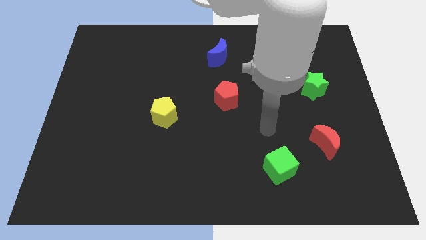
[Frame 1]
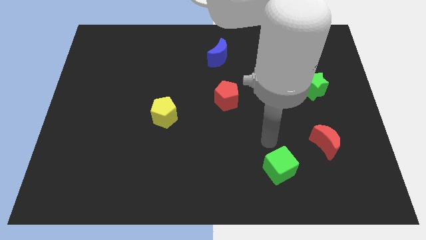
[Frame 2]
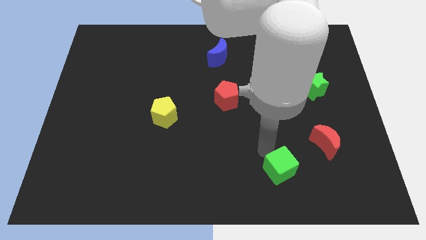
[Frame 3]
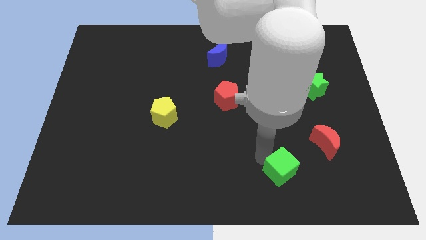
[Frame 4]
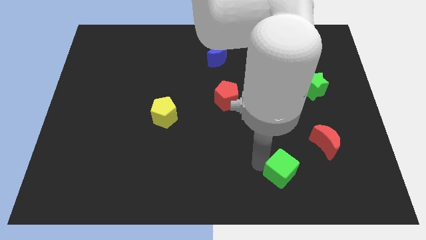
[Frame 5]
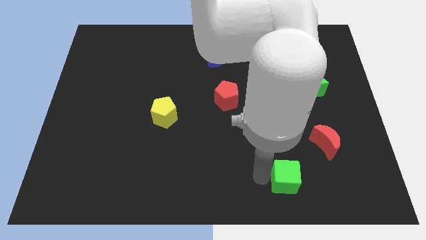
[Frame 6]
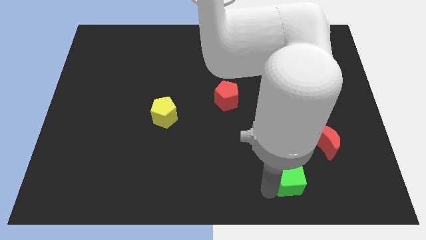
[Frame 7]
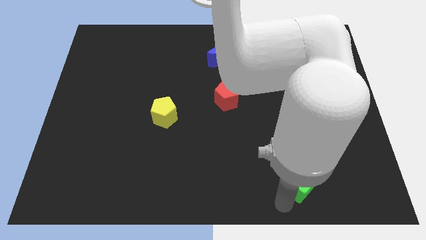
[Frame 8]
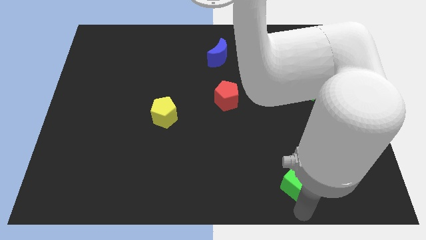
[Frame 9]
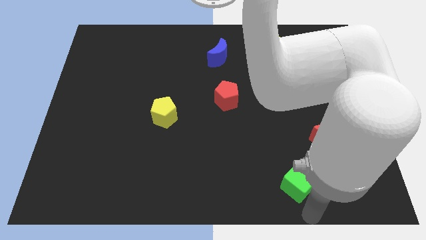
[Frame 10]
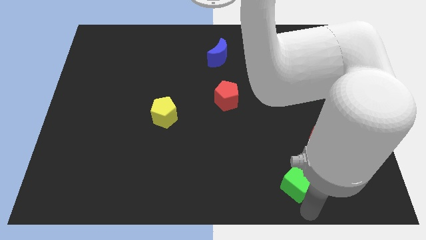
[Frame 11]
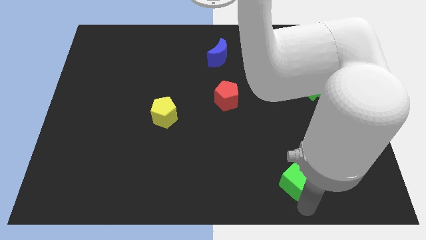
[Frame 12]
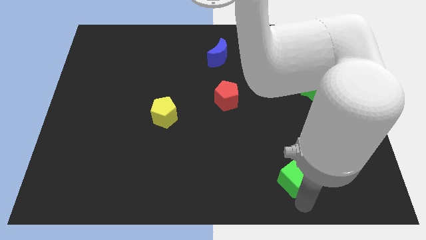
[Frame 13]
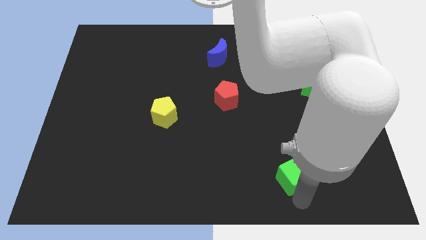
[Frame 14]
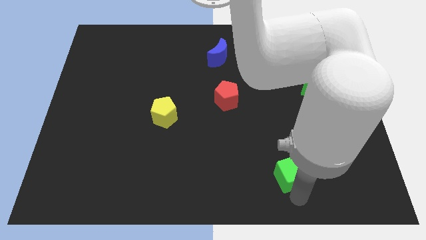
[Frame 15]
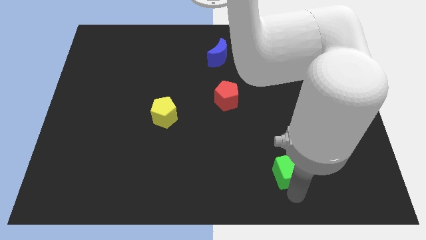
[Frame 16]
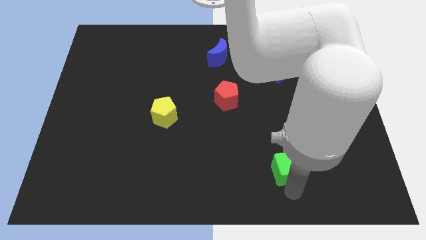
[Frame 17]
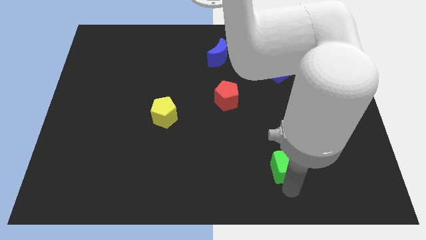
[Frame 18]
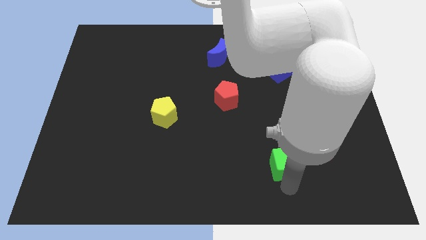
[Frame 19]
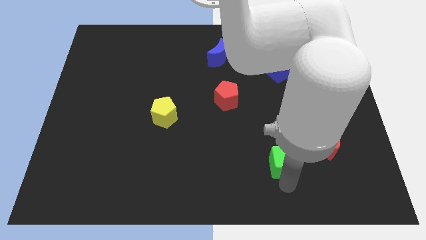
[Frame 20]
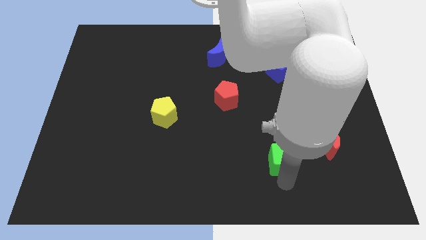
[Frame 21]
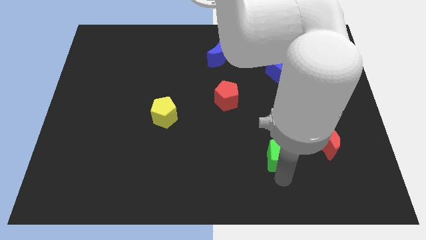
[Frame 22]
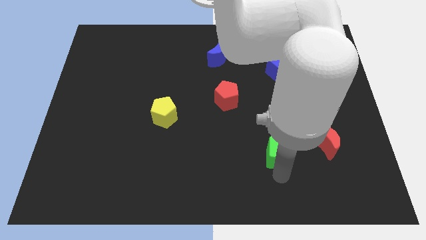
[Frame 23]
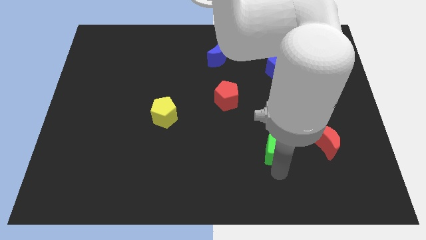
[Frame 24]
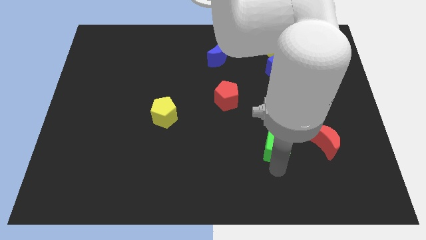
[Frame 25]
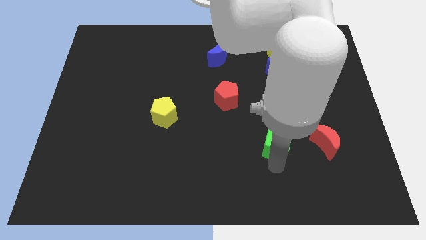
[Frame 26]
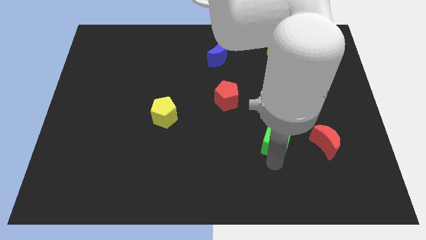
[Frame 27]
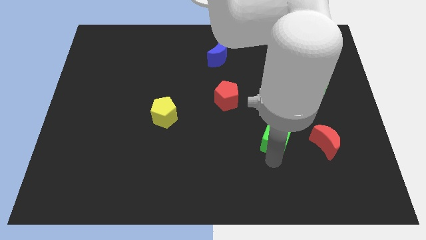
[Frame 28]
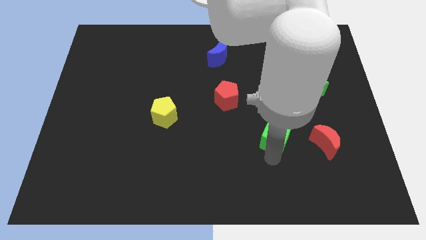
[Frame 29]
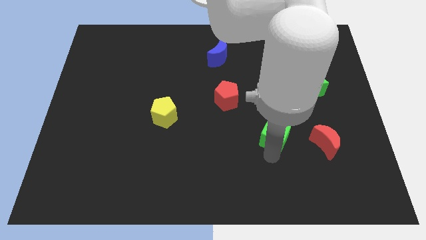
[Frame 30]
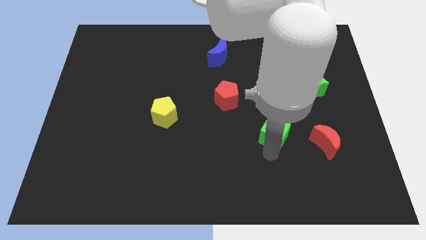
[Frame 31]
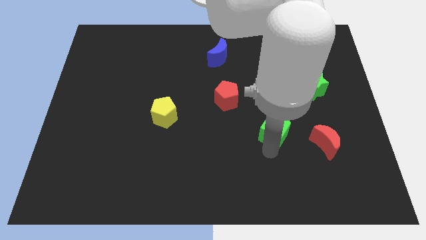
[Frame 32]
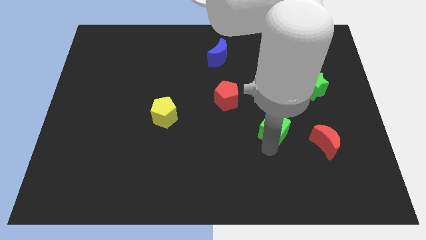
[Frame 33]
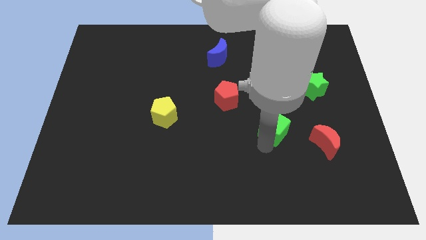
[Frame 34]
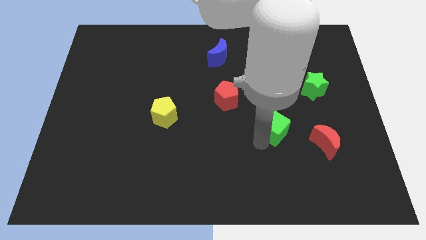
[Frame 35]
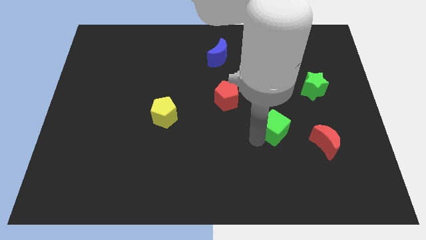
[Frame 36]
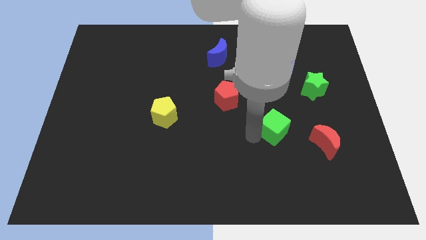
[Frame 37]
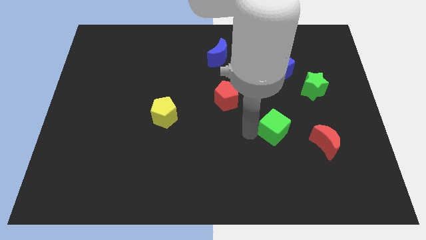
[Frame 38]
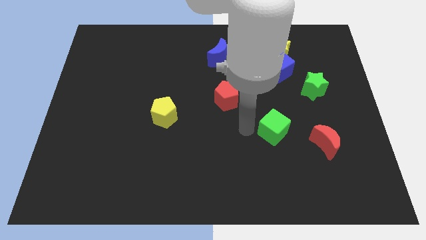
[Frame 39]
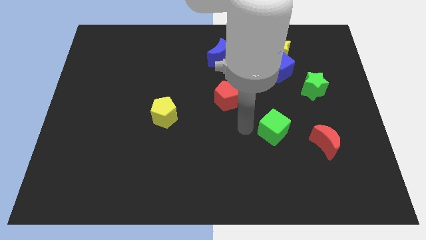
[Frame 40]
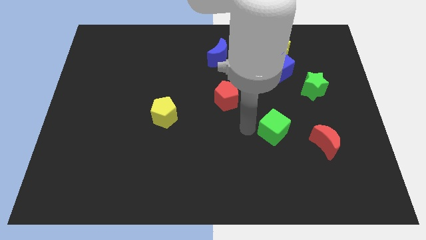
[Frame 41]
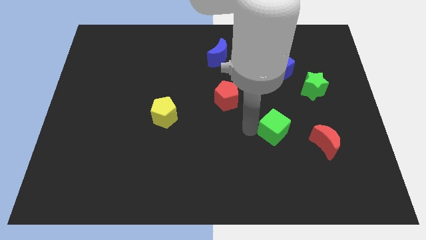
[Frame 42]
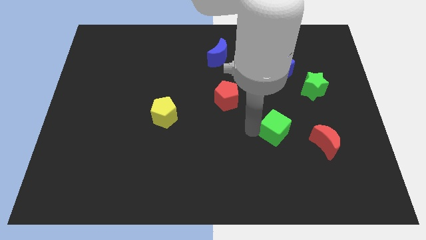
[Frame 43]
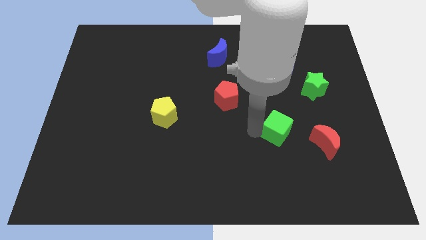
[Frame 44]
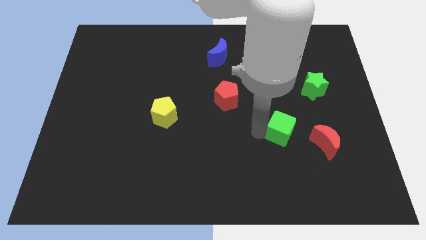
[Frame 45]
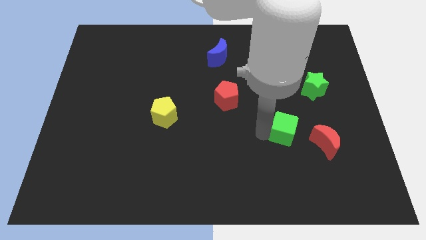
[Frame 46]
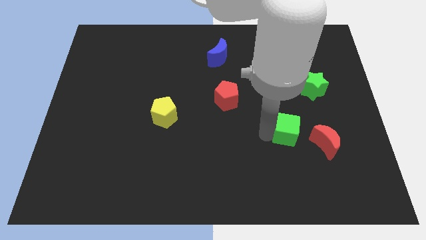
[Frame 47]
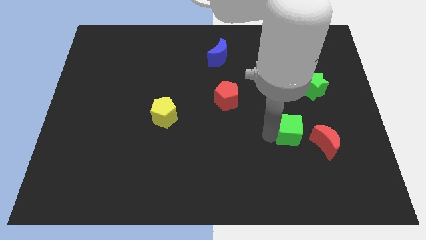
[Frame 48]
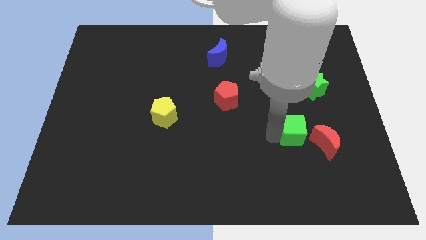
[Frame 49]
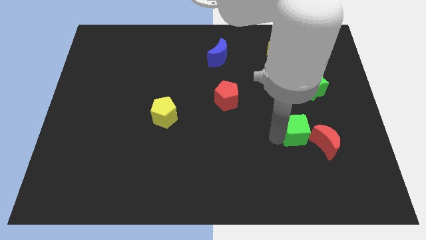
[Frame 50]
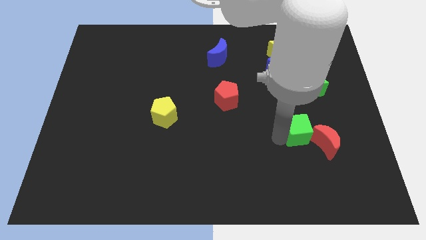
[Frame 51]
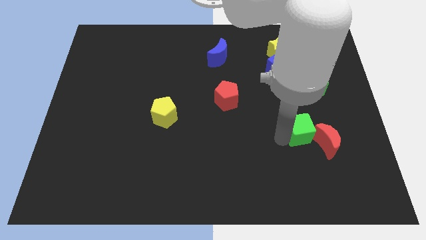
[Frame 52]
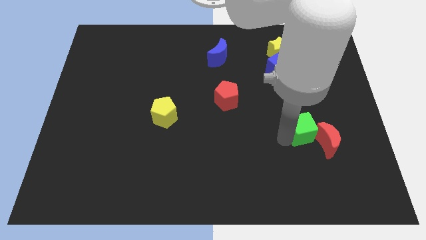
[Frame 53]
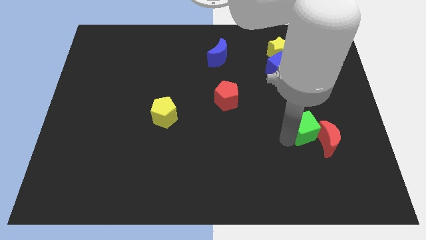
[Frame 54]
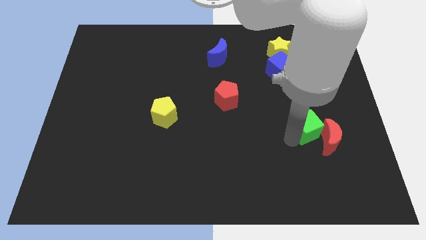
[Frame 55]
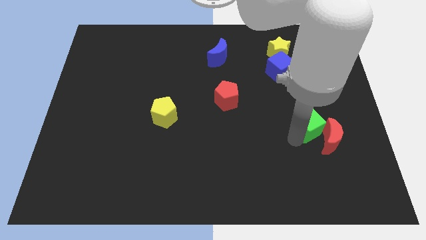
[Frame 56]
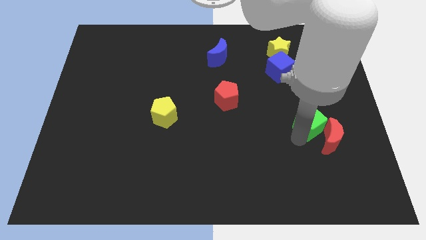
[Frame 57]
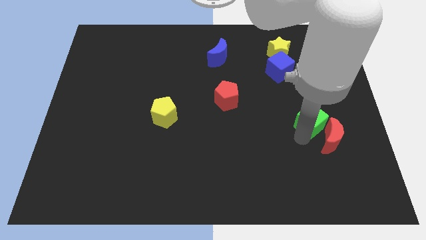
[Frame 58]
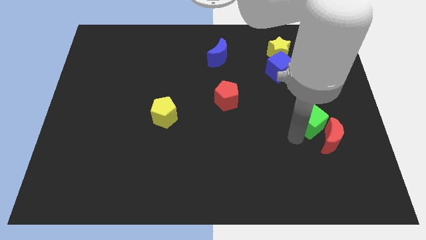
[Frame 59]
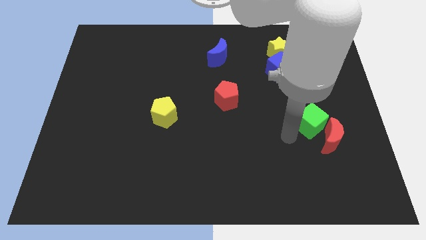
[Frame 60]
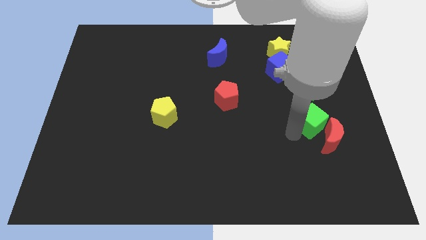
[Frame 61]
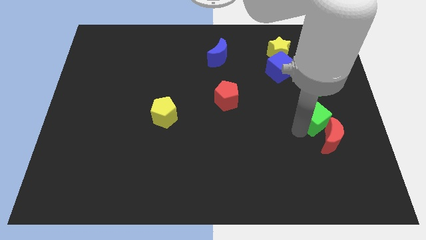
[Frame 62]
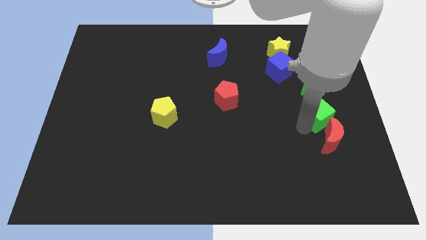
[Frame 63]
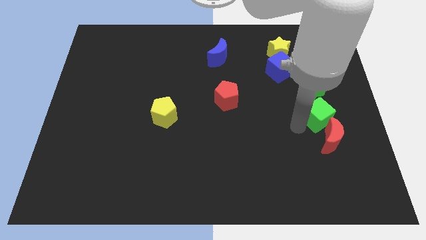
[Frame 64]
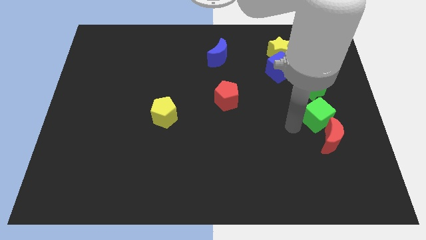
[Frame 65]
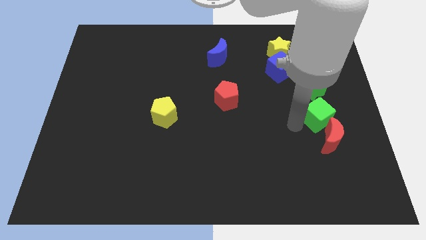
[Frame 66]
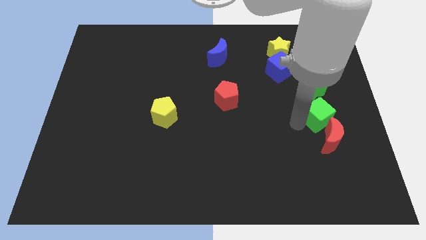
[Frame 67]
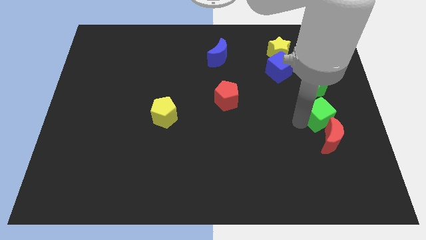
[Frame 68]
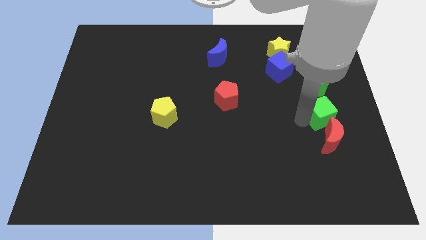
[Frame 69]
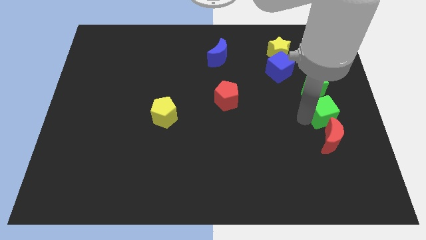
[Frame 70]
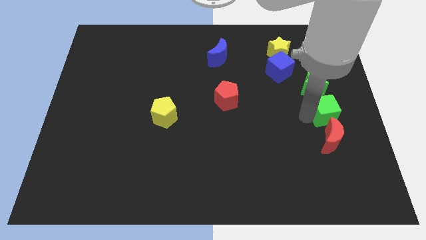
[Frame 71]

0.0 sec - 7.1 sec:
move the green cube to the right side
